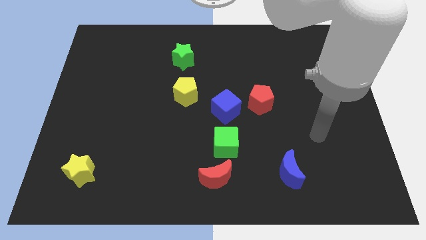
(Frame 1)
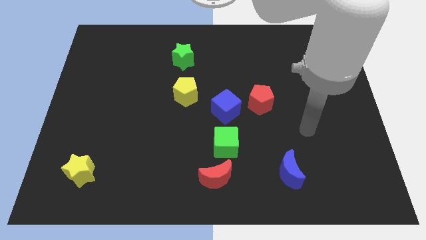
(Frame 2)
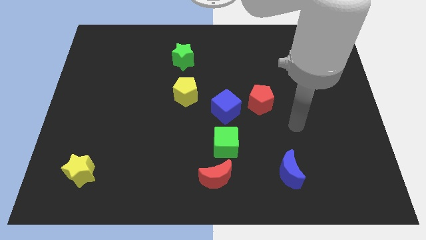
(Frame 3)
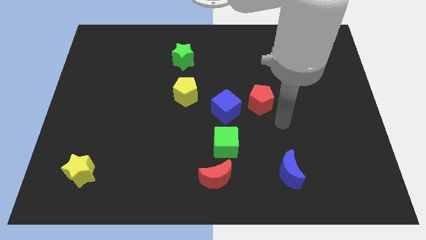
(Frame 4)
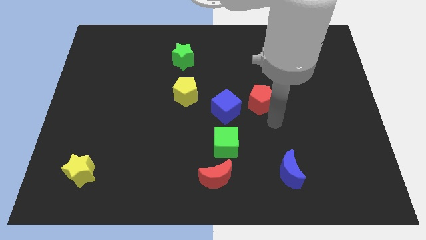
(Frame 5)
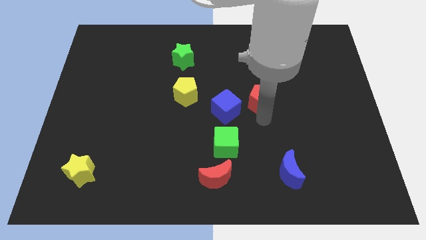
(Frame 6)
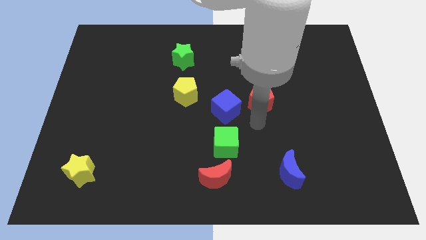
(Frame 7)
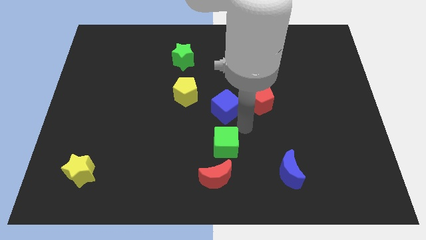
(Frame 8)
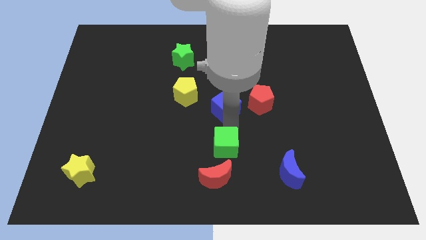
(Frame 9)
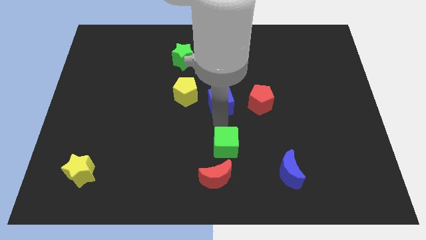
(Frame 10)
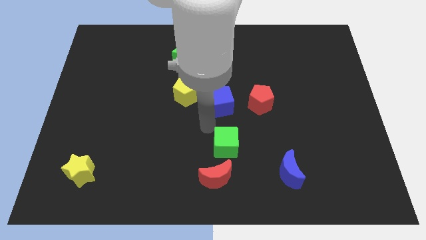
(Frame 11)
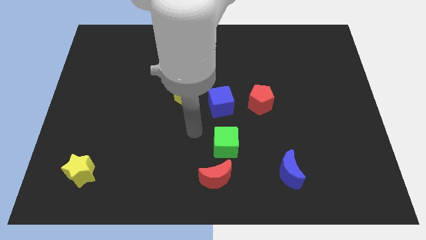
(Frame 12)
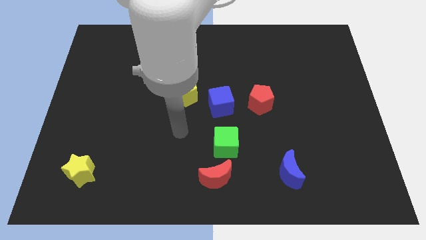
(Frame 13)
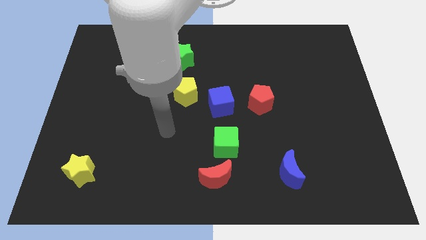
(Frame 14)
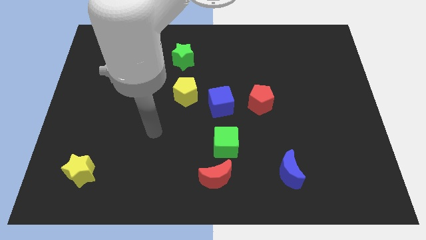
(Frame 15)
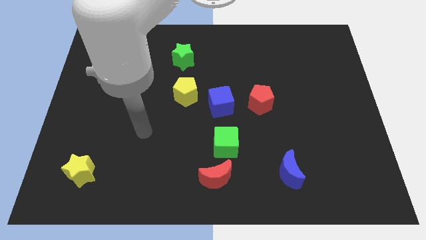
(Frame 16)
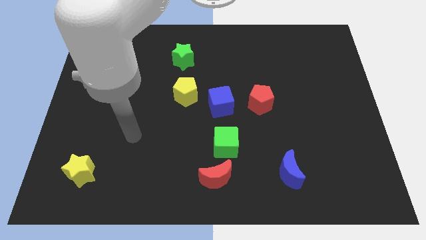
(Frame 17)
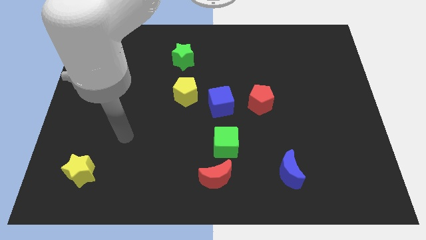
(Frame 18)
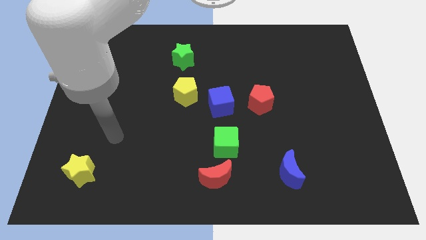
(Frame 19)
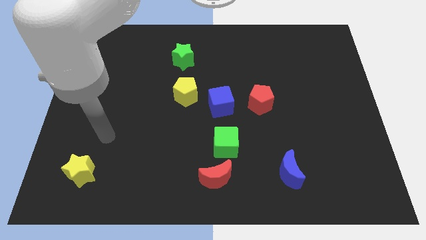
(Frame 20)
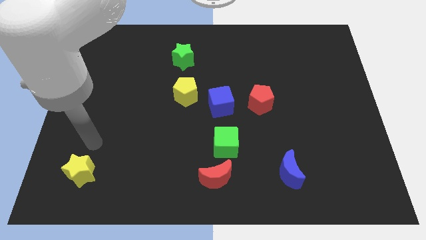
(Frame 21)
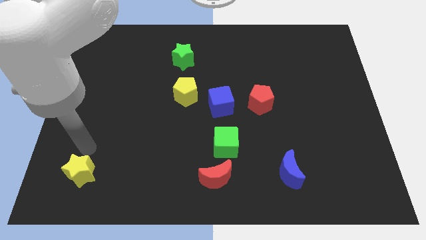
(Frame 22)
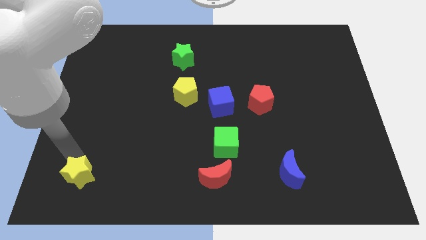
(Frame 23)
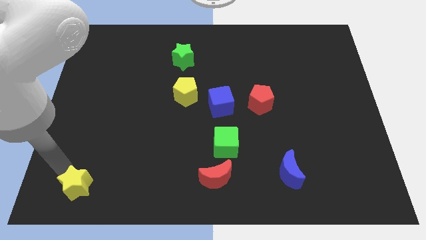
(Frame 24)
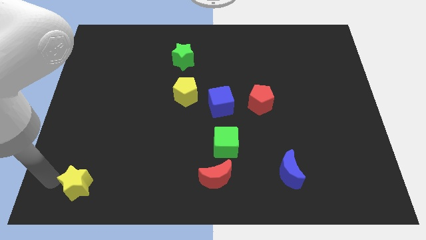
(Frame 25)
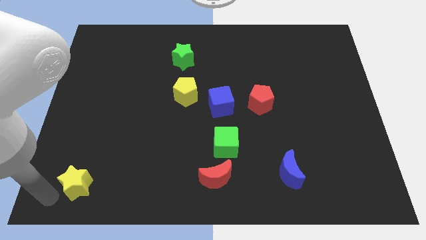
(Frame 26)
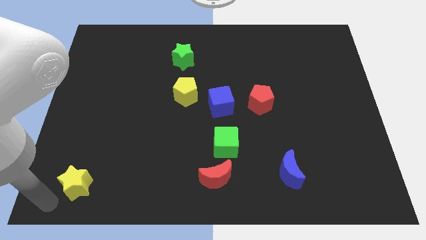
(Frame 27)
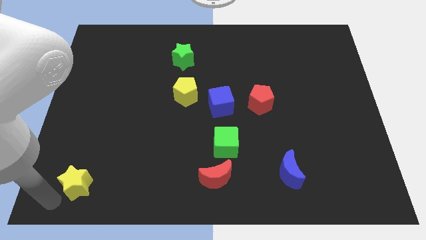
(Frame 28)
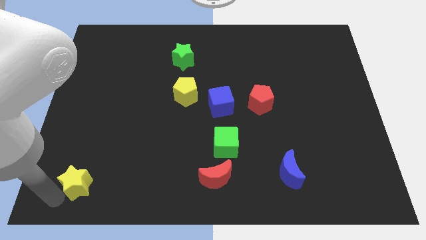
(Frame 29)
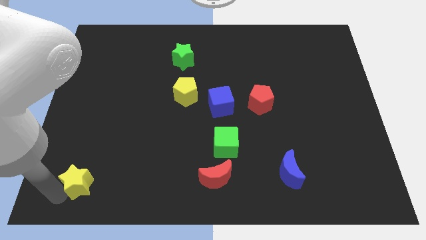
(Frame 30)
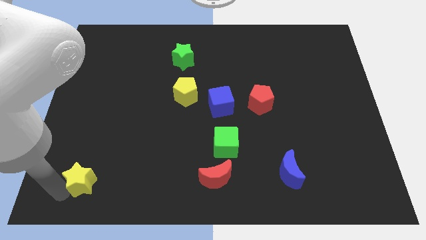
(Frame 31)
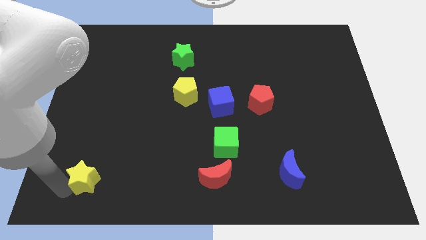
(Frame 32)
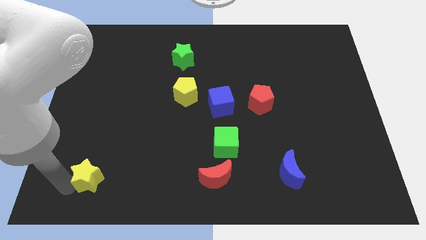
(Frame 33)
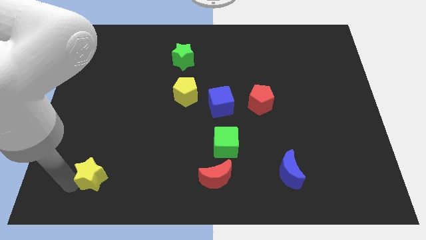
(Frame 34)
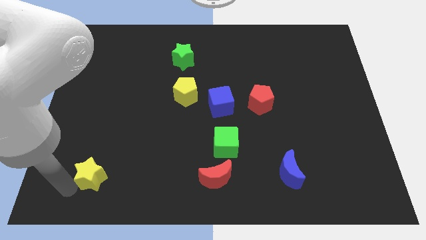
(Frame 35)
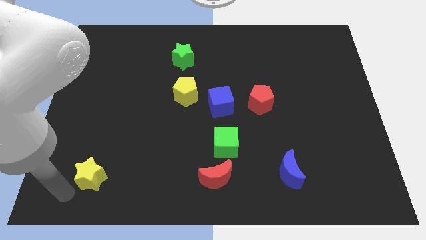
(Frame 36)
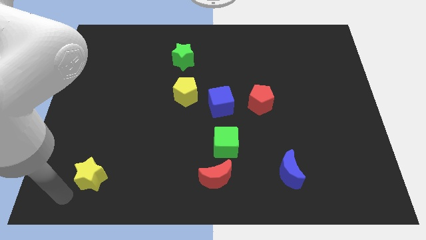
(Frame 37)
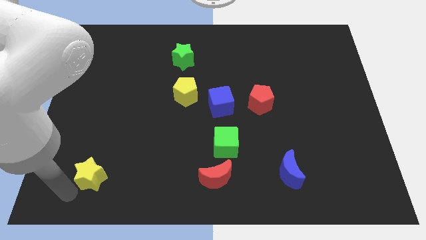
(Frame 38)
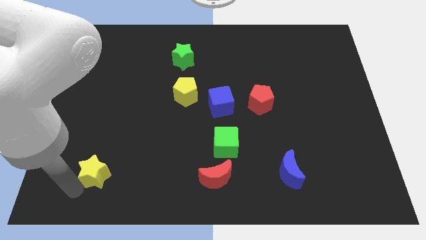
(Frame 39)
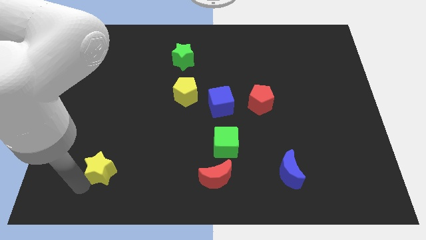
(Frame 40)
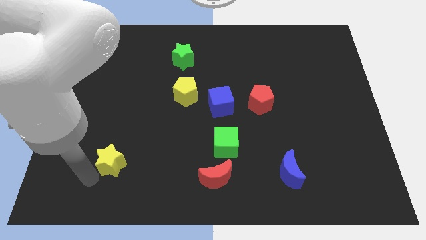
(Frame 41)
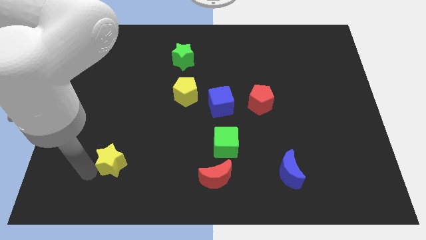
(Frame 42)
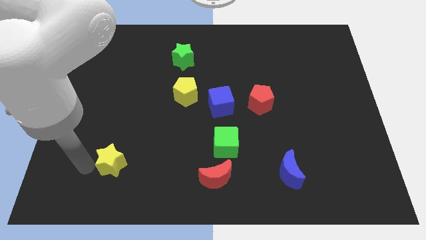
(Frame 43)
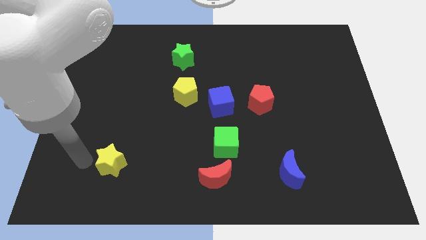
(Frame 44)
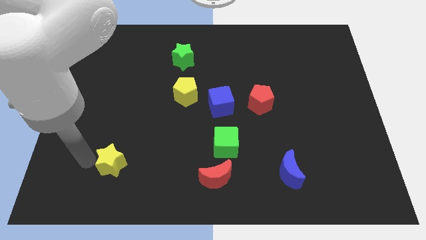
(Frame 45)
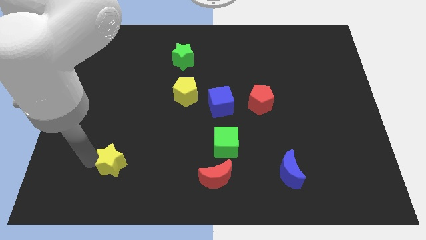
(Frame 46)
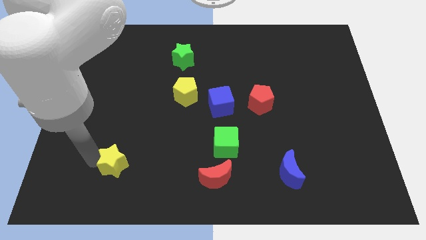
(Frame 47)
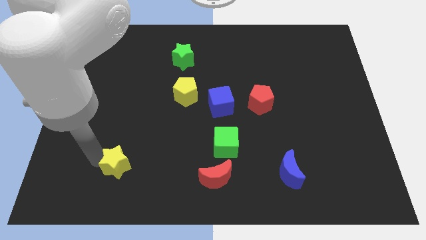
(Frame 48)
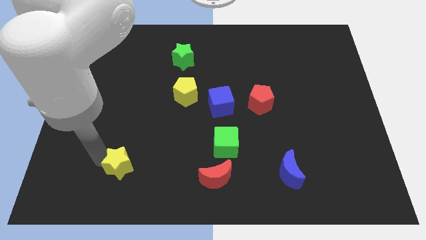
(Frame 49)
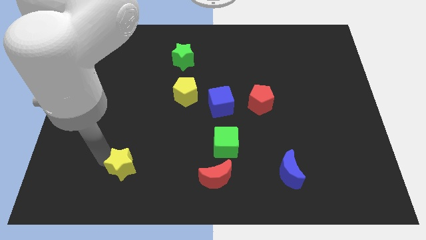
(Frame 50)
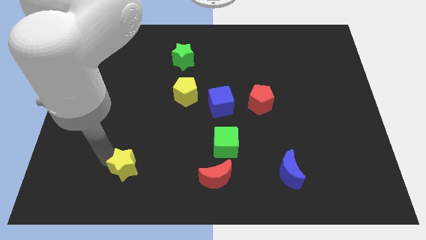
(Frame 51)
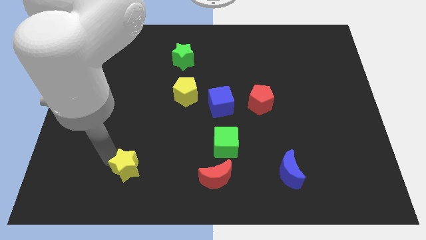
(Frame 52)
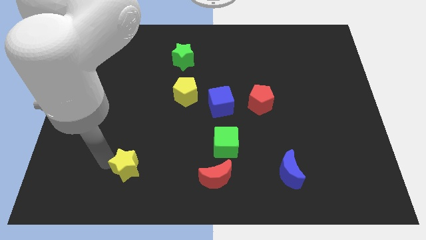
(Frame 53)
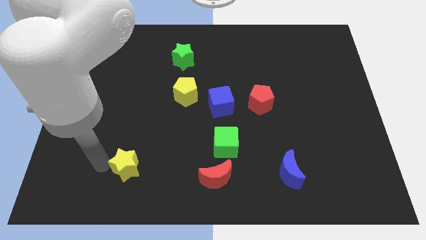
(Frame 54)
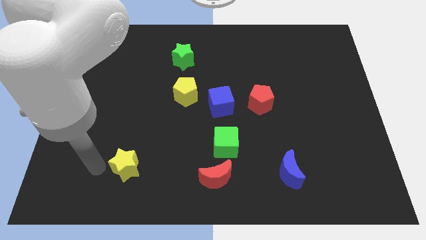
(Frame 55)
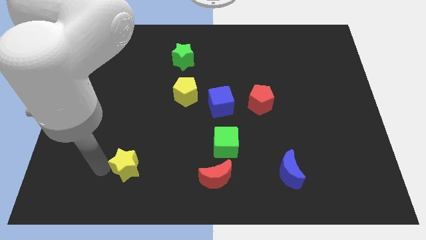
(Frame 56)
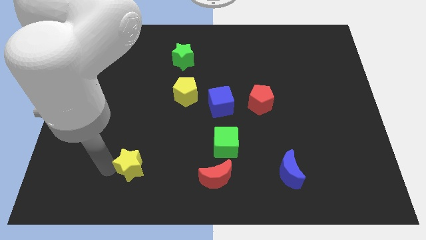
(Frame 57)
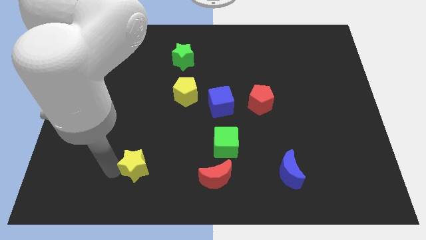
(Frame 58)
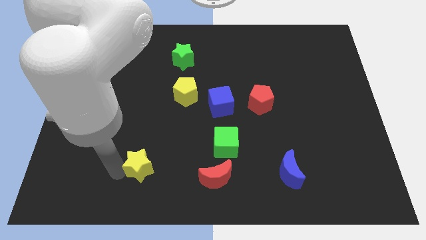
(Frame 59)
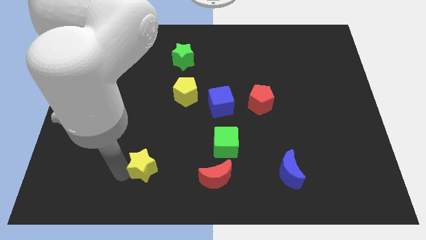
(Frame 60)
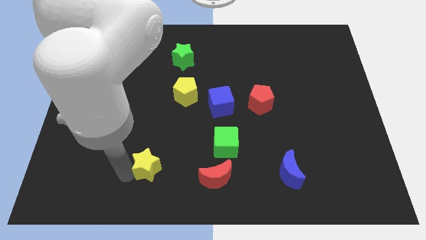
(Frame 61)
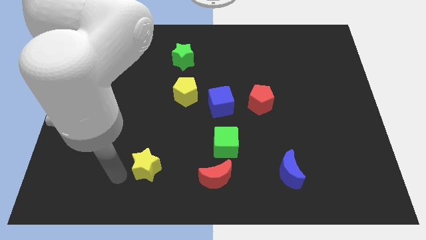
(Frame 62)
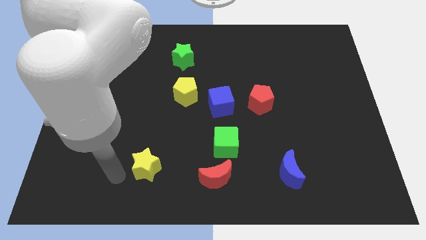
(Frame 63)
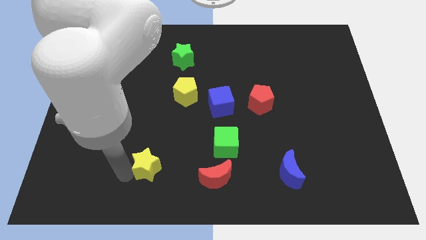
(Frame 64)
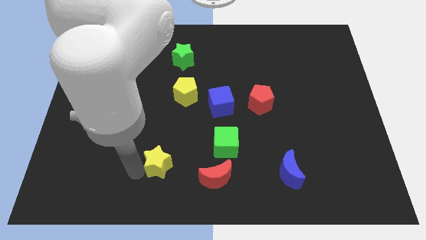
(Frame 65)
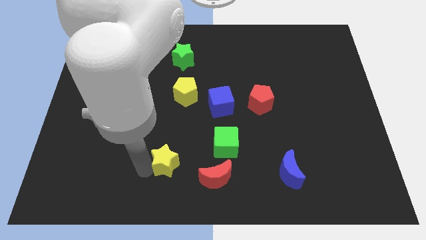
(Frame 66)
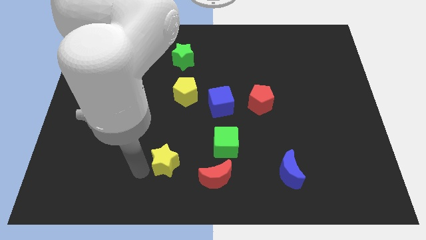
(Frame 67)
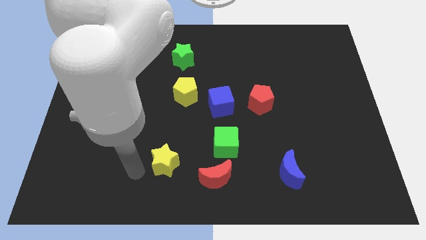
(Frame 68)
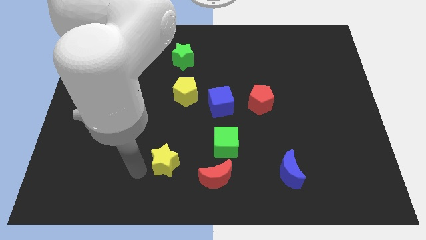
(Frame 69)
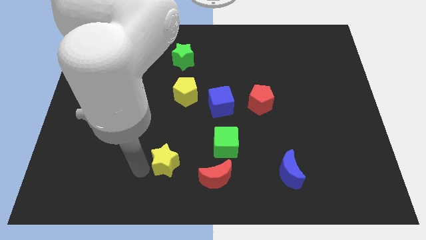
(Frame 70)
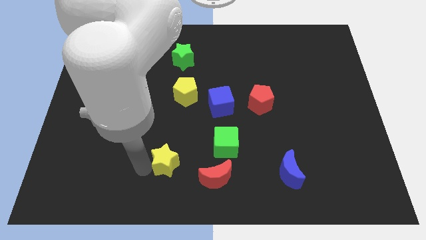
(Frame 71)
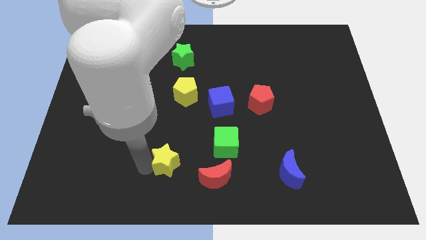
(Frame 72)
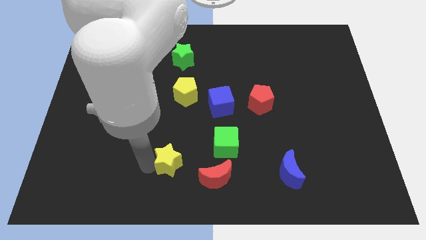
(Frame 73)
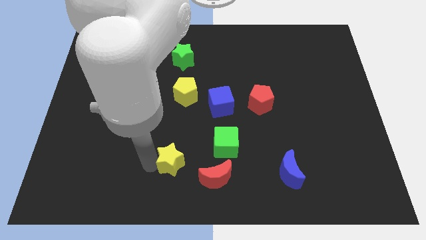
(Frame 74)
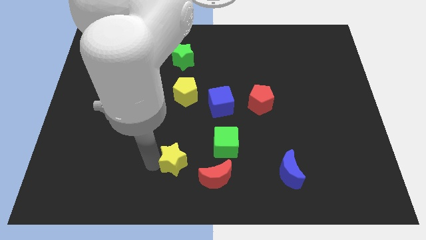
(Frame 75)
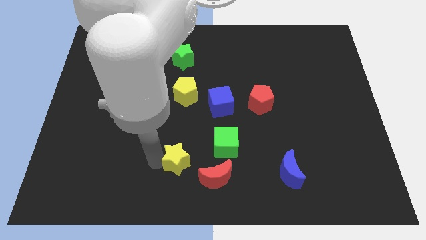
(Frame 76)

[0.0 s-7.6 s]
slide the yellow star to the bottom left of the green cube
